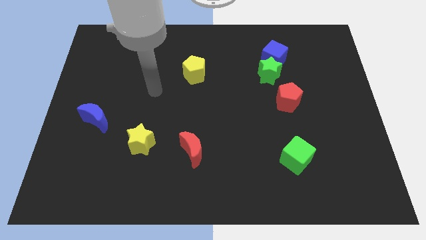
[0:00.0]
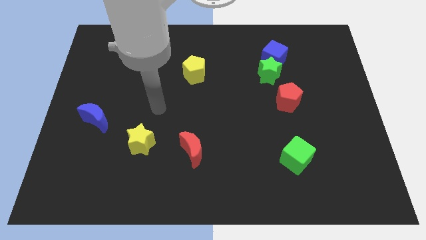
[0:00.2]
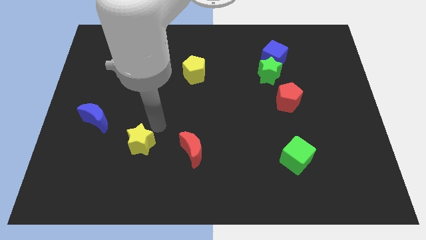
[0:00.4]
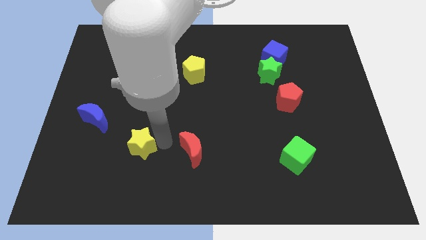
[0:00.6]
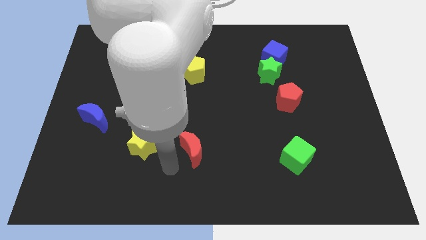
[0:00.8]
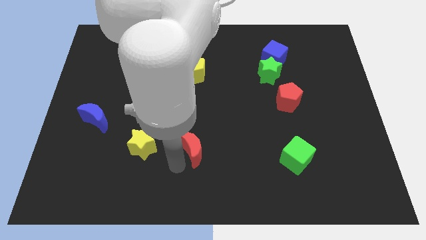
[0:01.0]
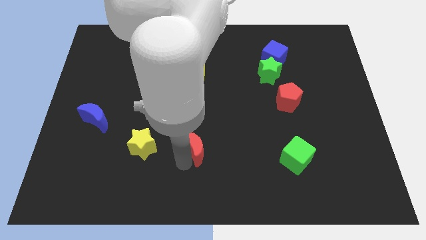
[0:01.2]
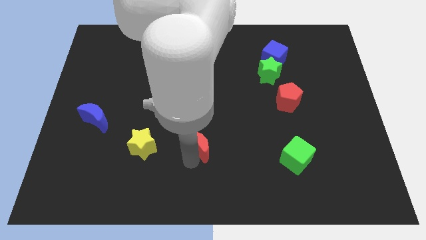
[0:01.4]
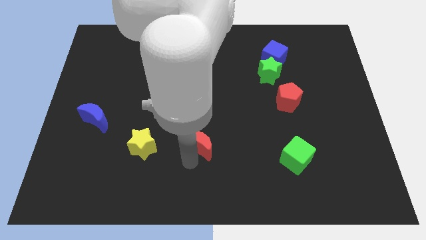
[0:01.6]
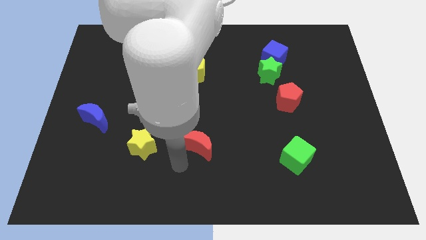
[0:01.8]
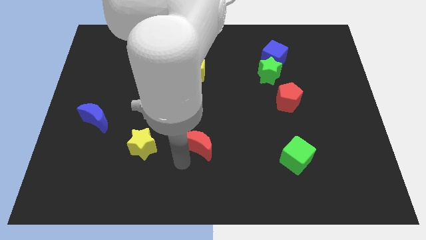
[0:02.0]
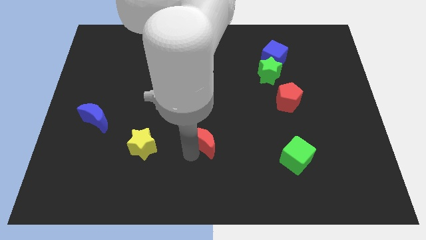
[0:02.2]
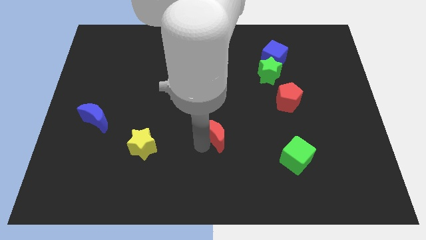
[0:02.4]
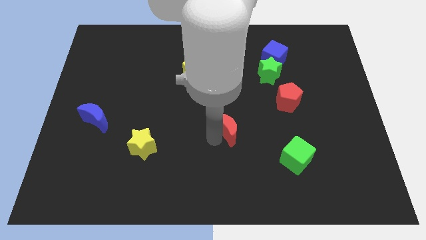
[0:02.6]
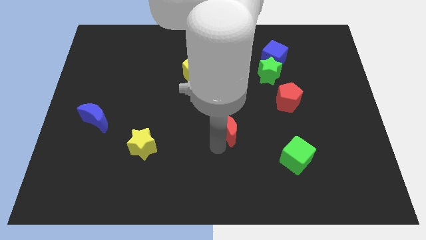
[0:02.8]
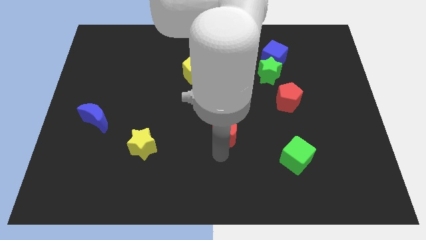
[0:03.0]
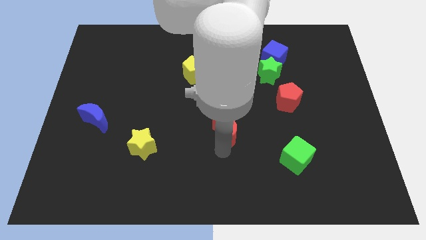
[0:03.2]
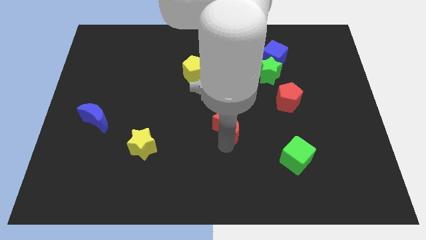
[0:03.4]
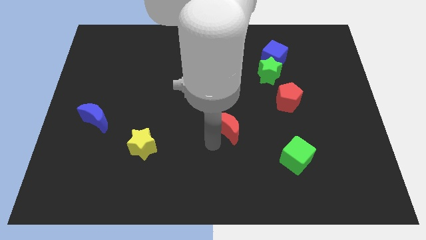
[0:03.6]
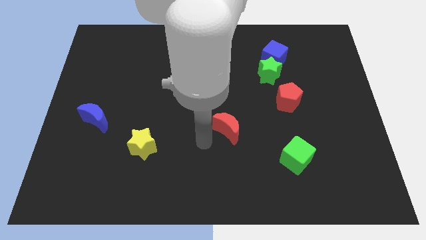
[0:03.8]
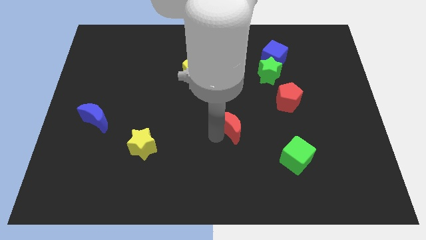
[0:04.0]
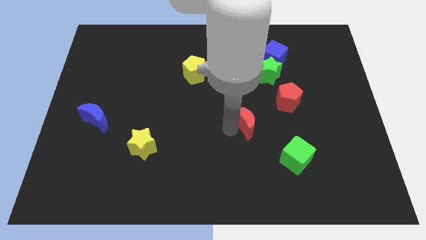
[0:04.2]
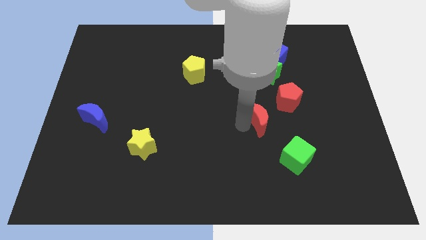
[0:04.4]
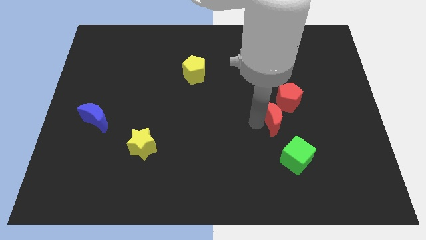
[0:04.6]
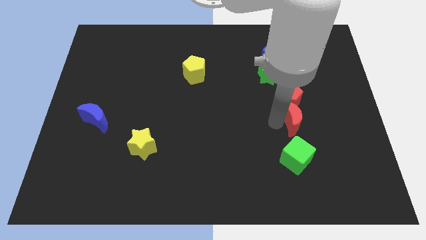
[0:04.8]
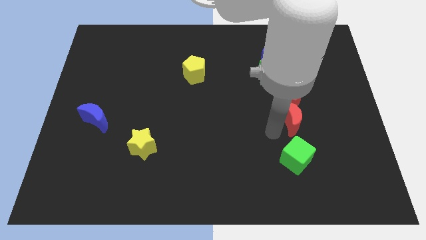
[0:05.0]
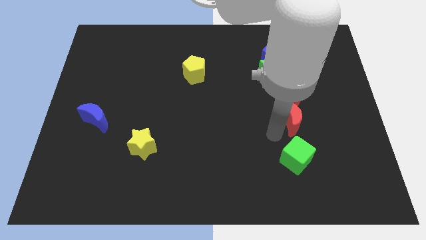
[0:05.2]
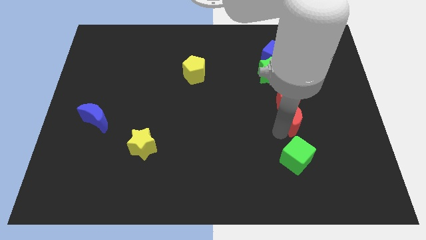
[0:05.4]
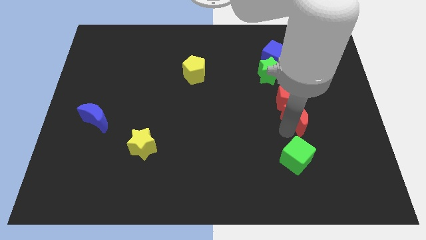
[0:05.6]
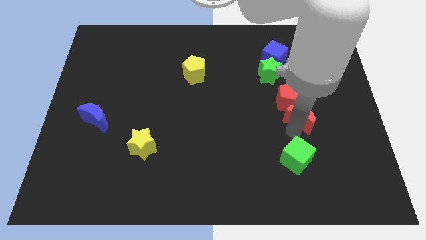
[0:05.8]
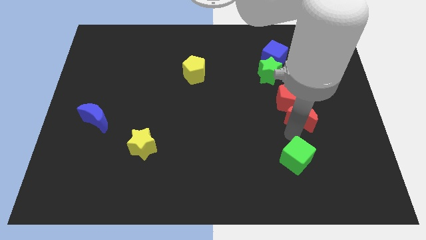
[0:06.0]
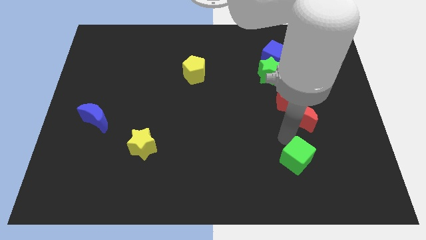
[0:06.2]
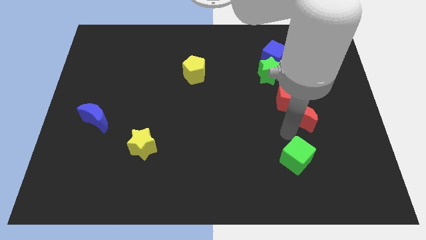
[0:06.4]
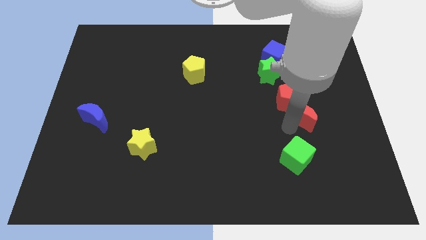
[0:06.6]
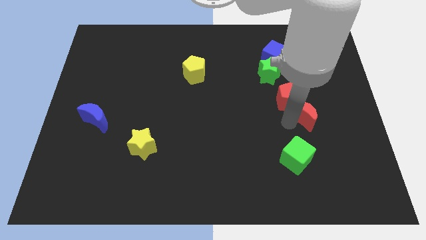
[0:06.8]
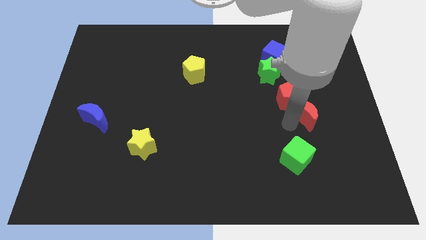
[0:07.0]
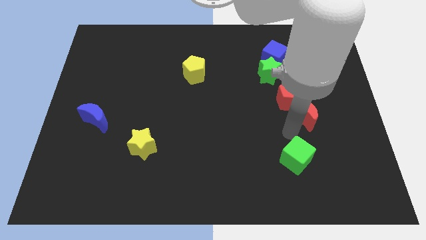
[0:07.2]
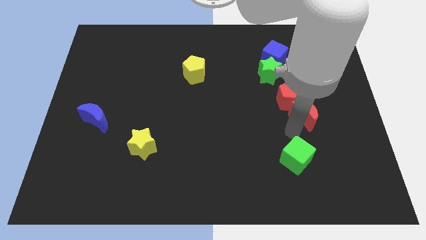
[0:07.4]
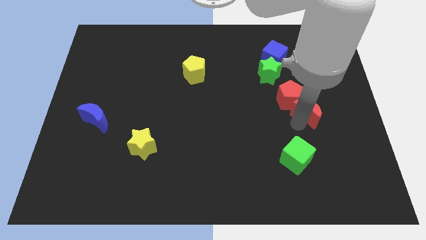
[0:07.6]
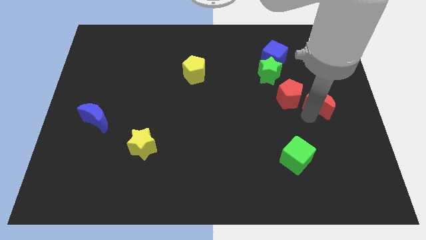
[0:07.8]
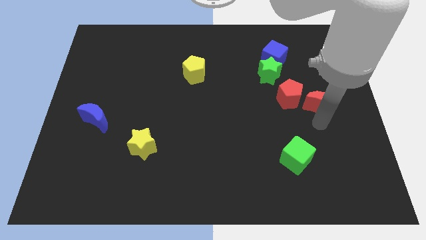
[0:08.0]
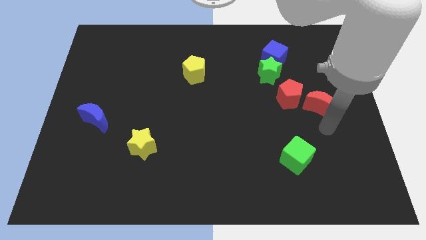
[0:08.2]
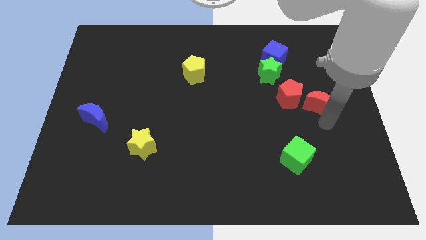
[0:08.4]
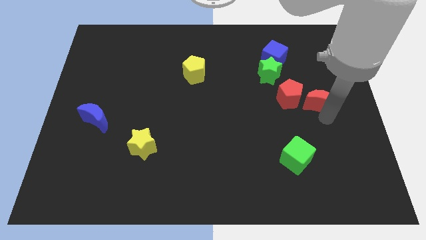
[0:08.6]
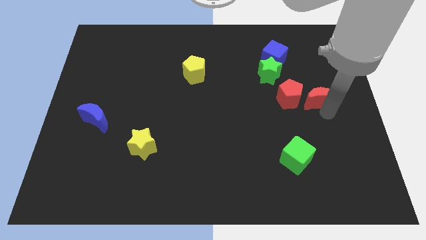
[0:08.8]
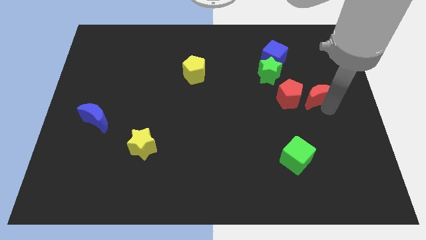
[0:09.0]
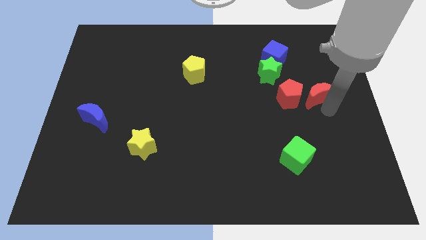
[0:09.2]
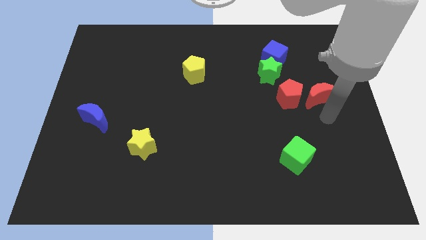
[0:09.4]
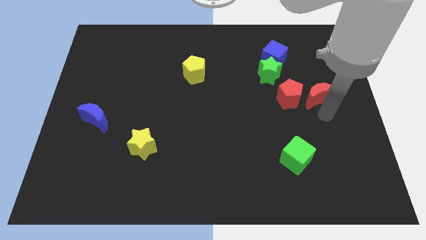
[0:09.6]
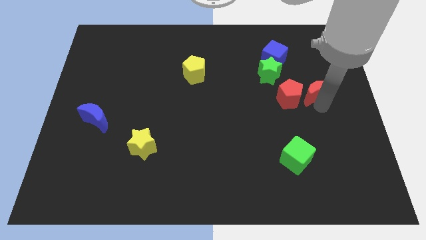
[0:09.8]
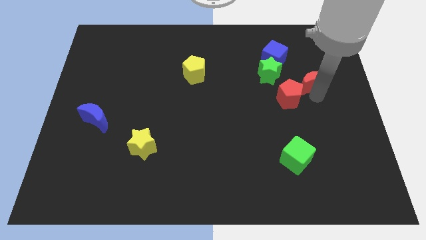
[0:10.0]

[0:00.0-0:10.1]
move the red moon to the right side of the green star

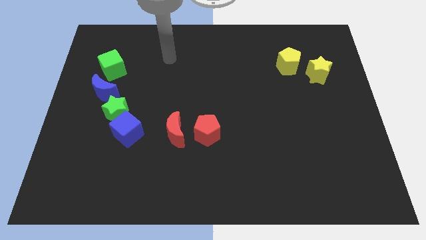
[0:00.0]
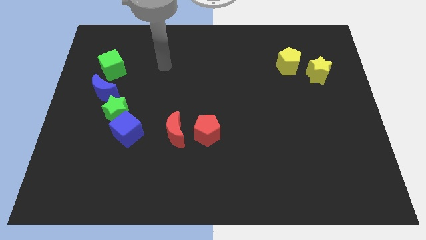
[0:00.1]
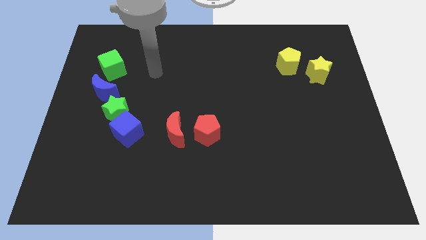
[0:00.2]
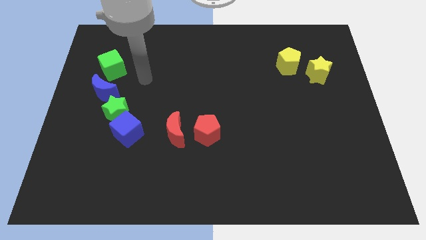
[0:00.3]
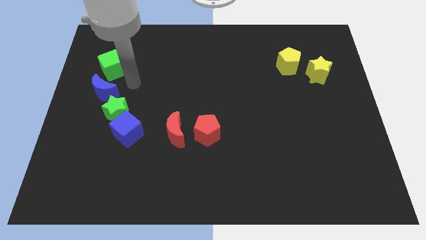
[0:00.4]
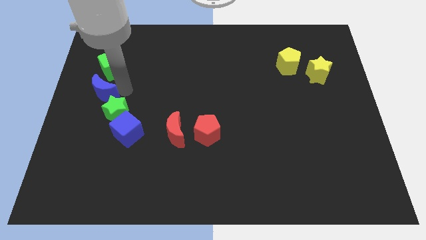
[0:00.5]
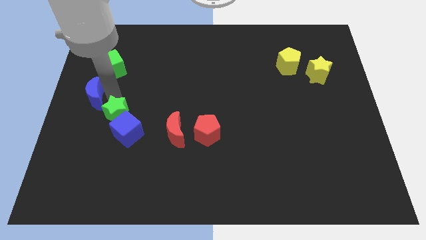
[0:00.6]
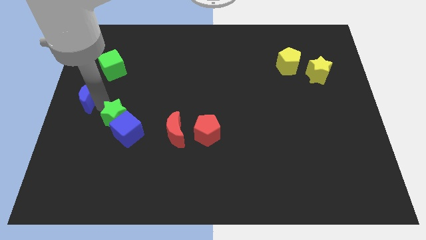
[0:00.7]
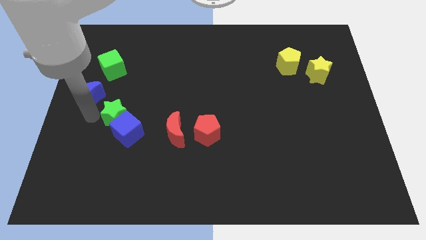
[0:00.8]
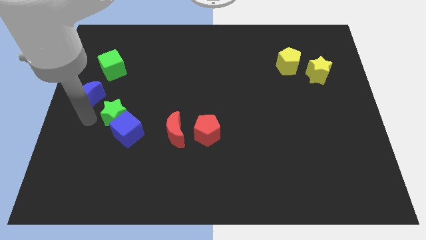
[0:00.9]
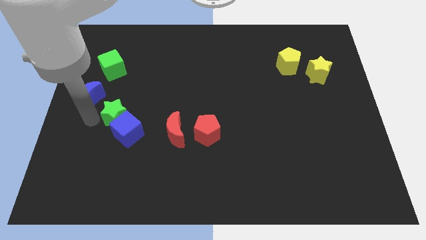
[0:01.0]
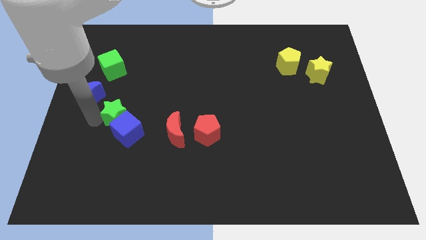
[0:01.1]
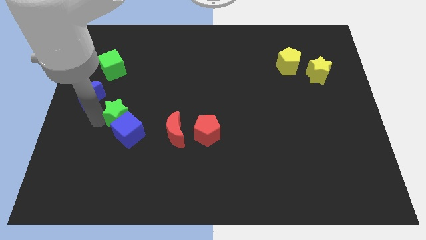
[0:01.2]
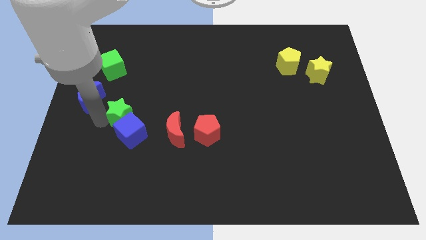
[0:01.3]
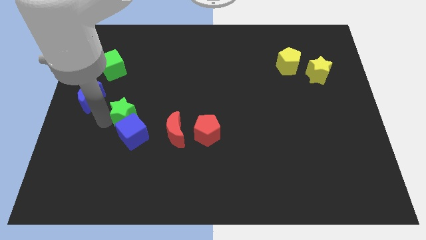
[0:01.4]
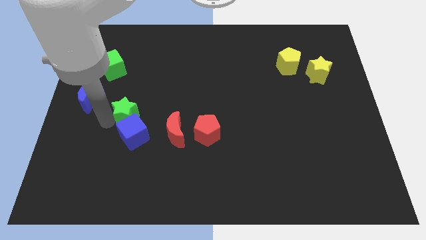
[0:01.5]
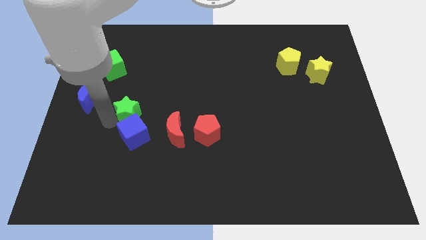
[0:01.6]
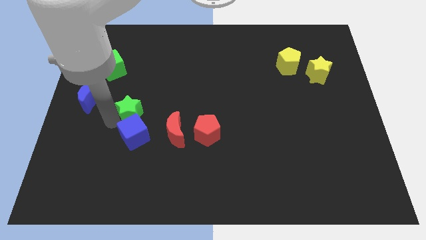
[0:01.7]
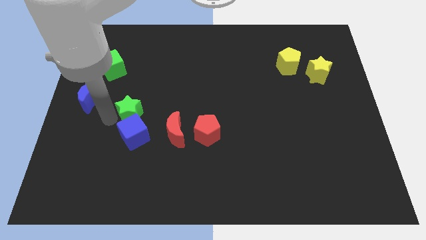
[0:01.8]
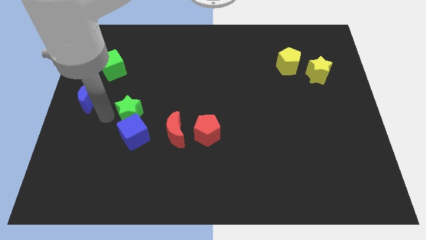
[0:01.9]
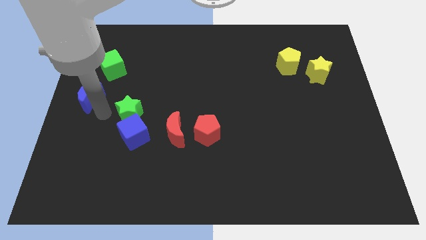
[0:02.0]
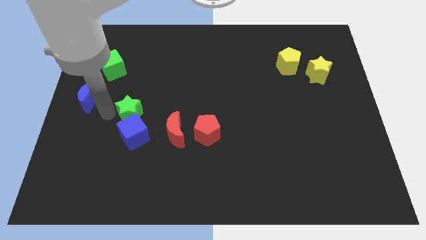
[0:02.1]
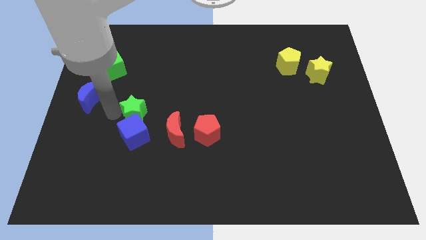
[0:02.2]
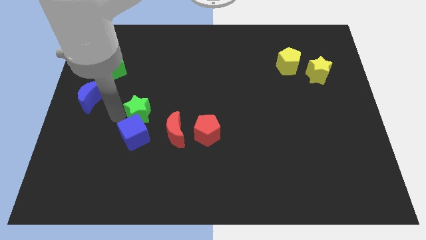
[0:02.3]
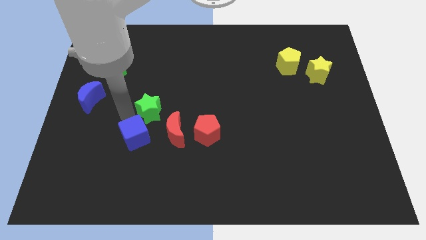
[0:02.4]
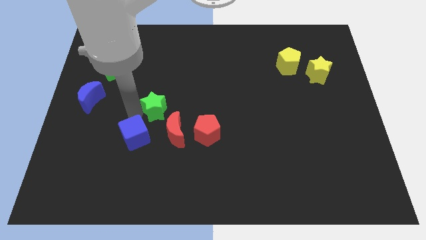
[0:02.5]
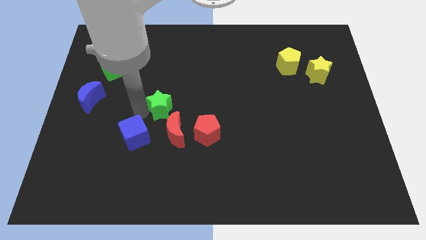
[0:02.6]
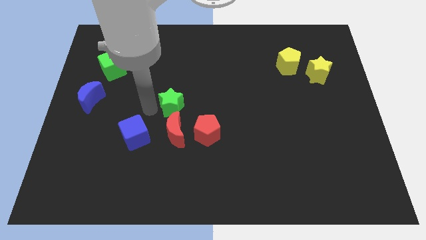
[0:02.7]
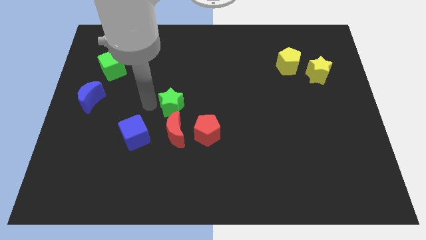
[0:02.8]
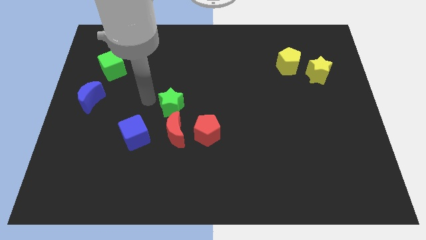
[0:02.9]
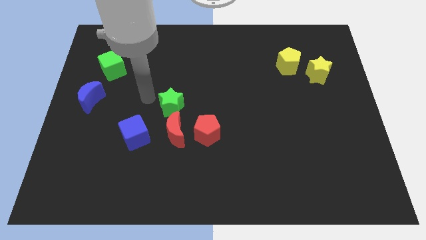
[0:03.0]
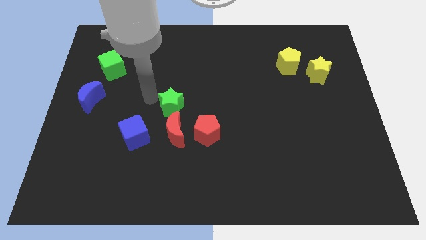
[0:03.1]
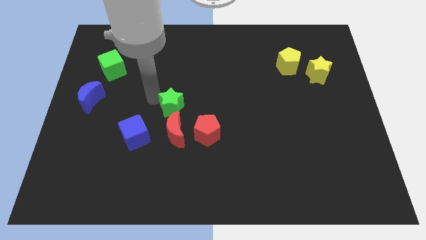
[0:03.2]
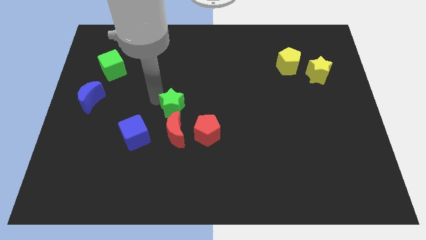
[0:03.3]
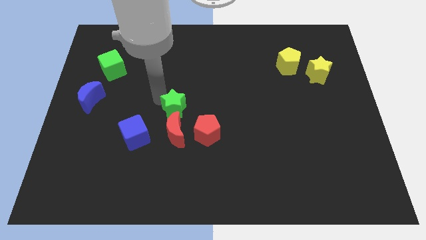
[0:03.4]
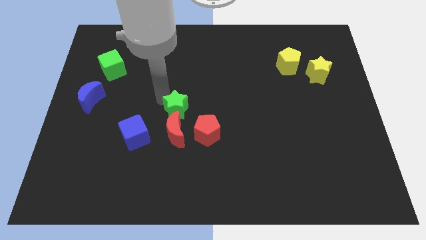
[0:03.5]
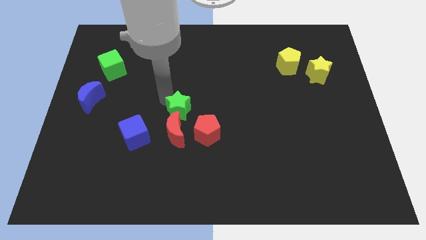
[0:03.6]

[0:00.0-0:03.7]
put the green star to the top right of the red moon
